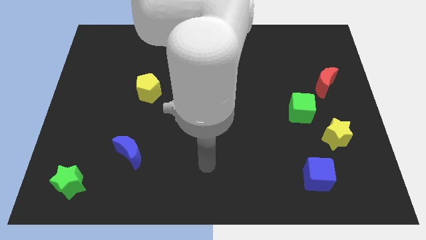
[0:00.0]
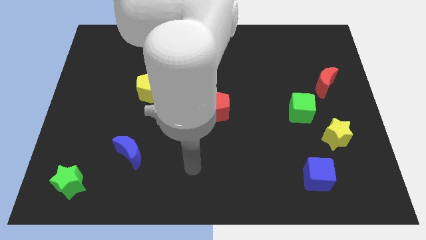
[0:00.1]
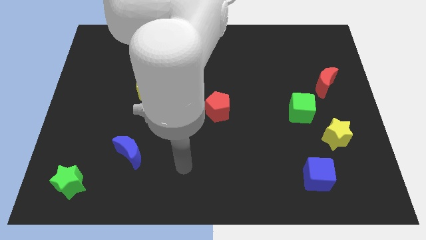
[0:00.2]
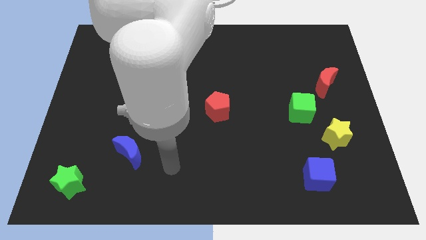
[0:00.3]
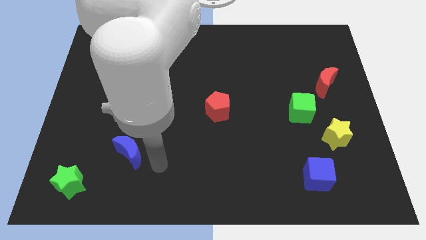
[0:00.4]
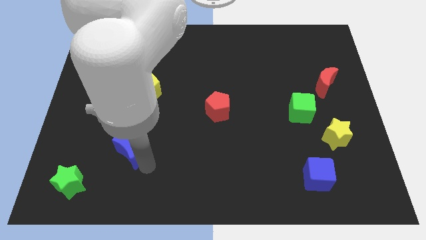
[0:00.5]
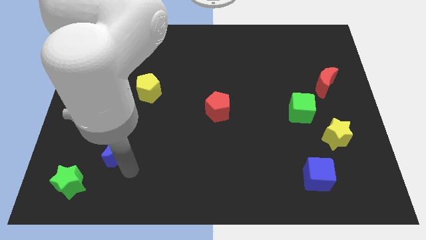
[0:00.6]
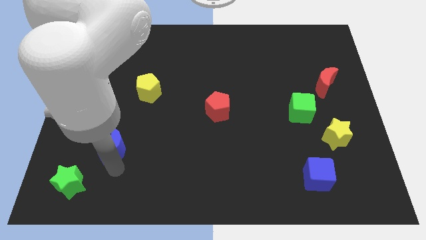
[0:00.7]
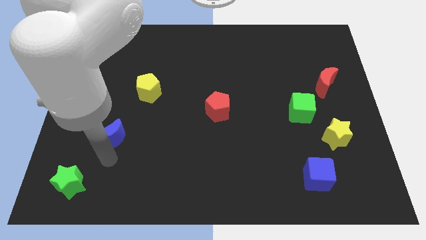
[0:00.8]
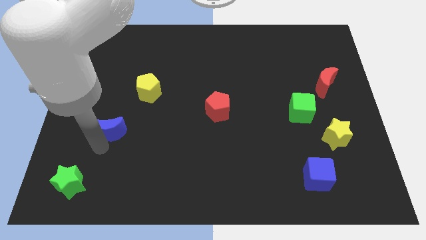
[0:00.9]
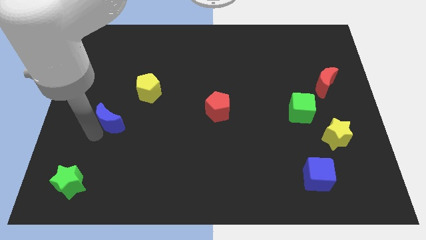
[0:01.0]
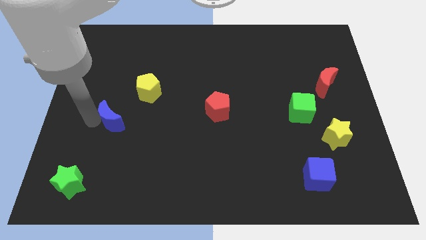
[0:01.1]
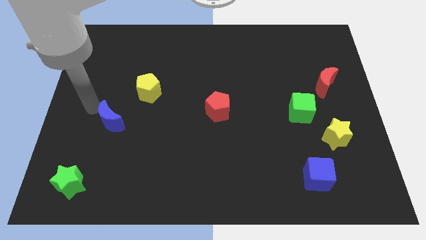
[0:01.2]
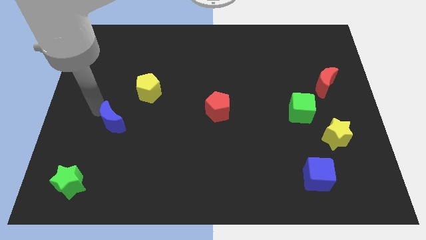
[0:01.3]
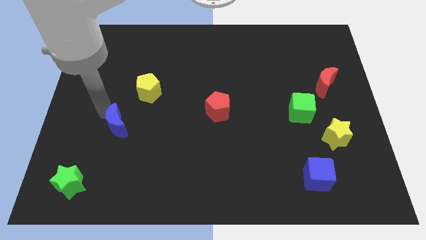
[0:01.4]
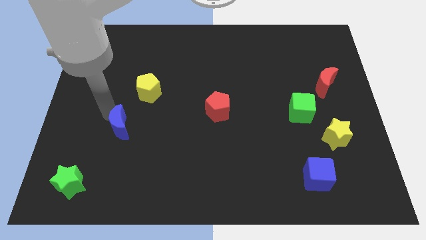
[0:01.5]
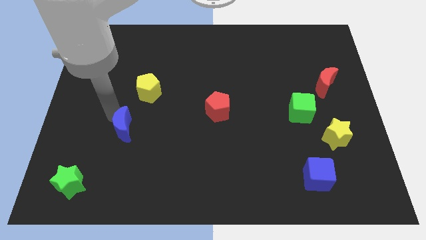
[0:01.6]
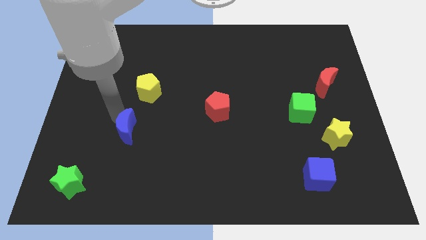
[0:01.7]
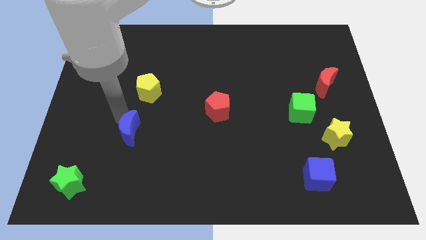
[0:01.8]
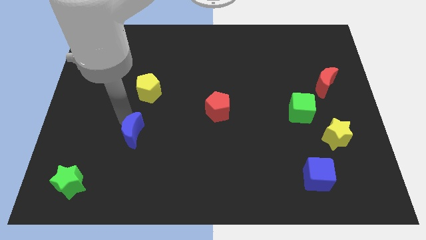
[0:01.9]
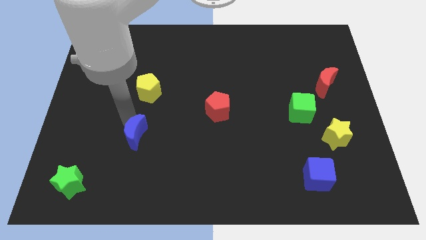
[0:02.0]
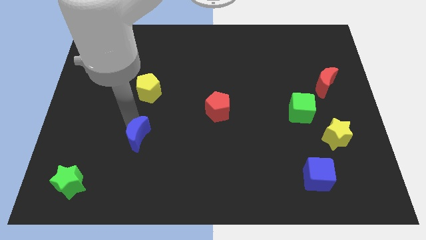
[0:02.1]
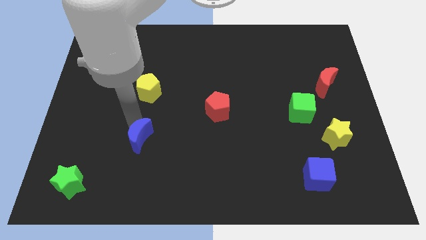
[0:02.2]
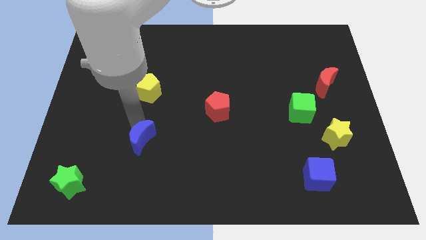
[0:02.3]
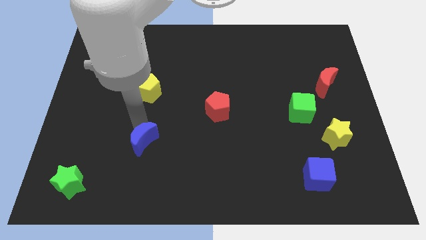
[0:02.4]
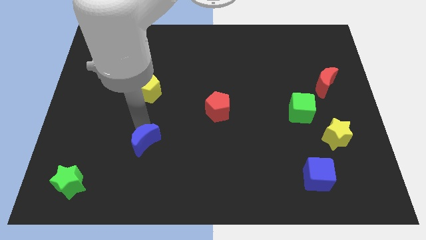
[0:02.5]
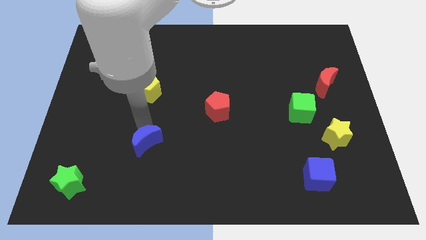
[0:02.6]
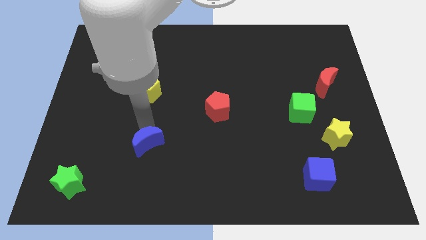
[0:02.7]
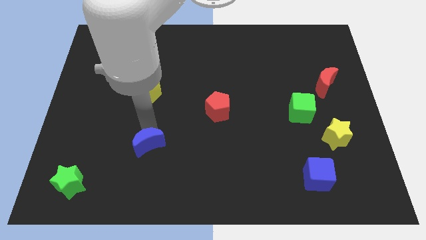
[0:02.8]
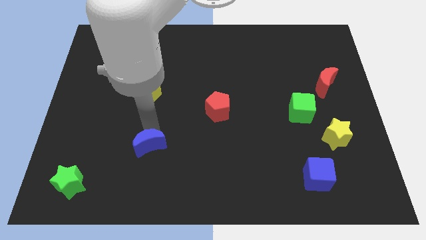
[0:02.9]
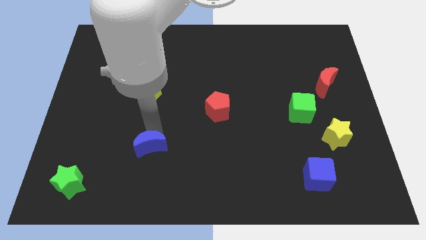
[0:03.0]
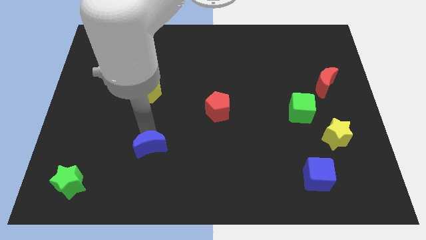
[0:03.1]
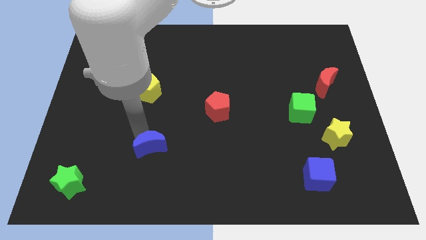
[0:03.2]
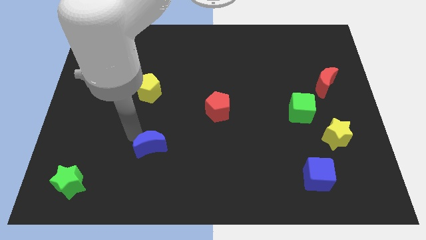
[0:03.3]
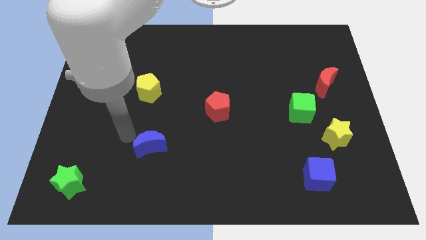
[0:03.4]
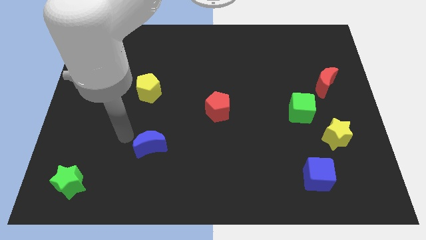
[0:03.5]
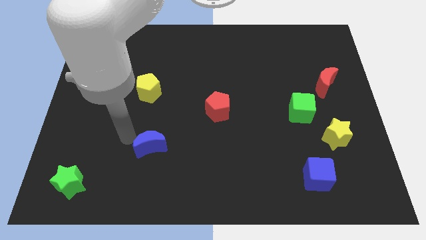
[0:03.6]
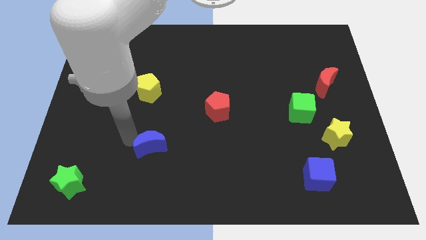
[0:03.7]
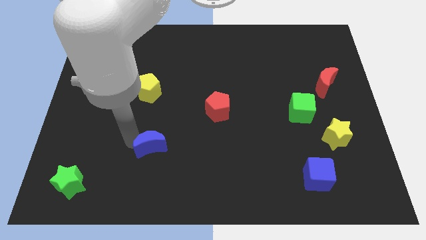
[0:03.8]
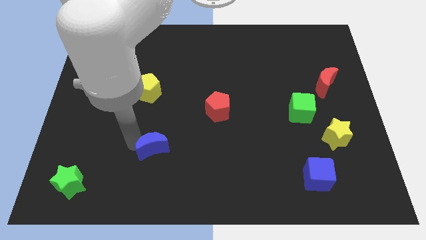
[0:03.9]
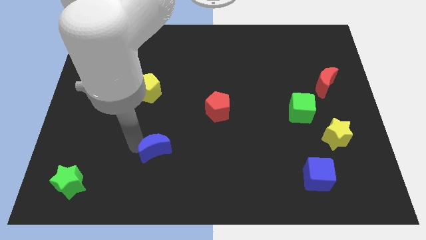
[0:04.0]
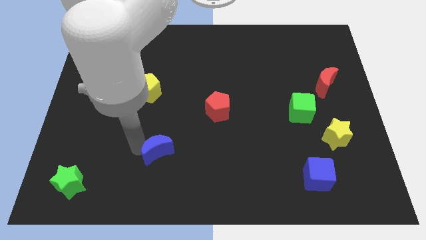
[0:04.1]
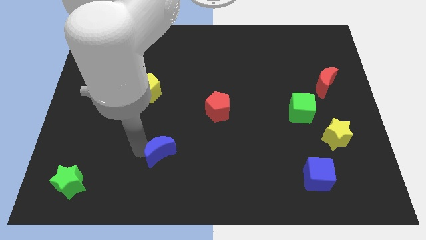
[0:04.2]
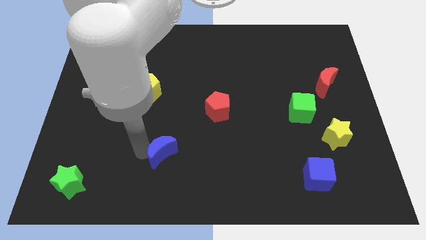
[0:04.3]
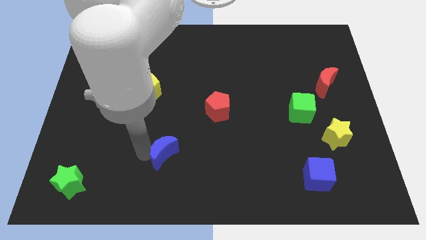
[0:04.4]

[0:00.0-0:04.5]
slightly push the blue moon to the right

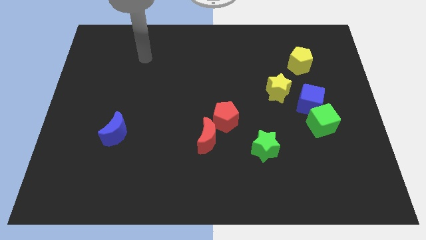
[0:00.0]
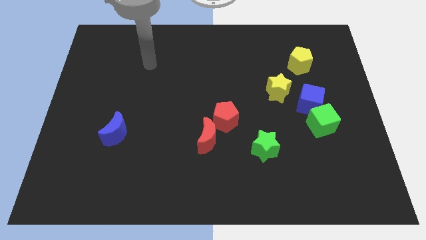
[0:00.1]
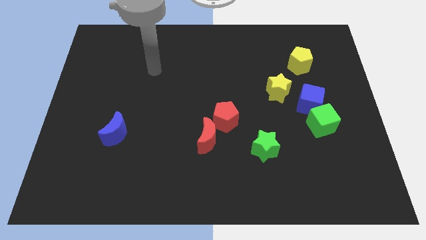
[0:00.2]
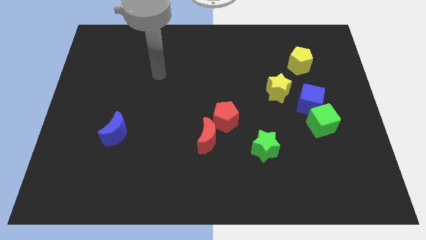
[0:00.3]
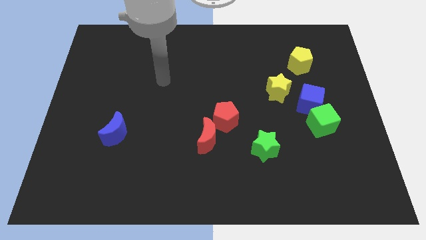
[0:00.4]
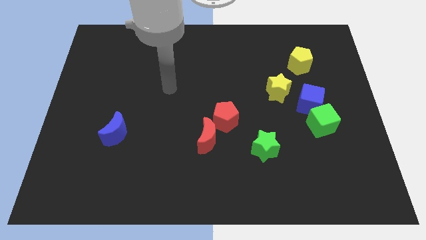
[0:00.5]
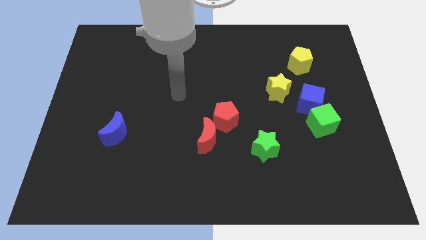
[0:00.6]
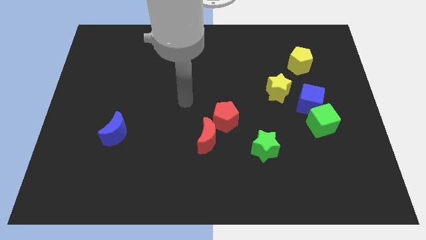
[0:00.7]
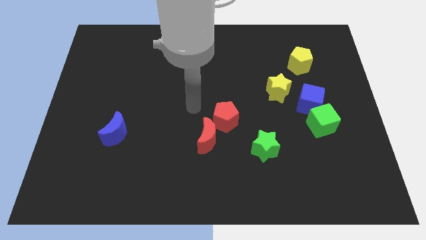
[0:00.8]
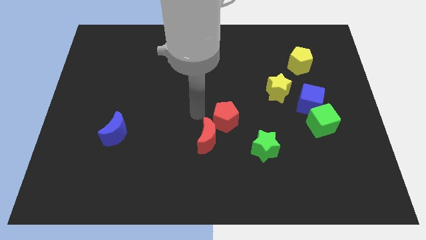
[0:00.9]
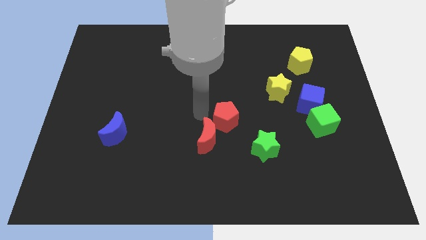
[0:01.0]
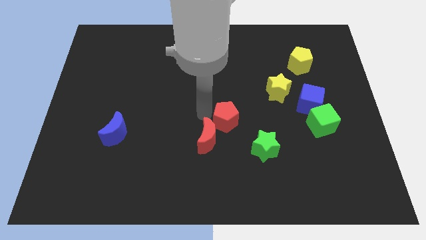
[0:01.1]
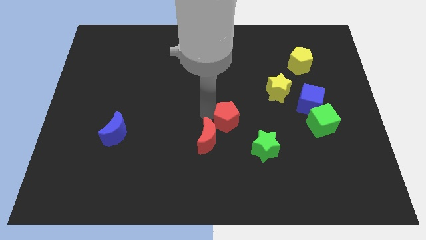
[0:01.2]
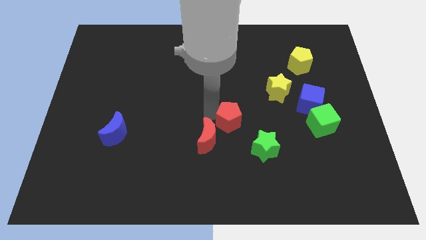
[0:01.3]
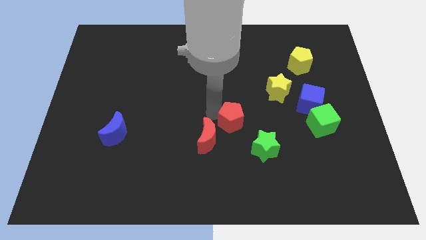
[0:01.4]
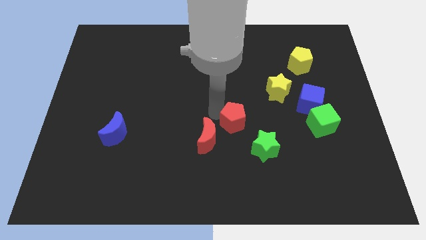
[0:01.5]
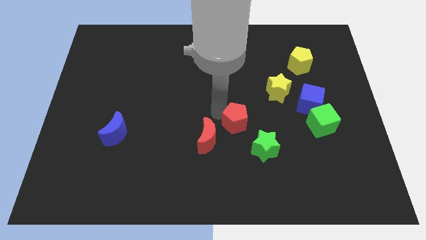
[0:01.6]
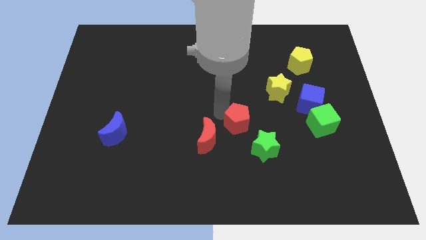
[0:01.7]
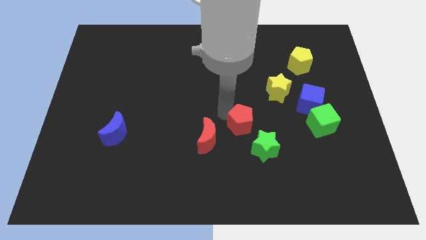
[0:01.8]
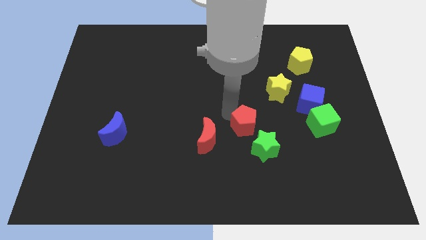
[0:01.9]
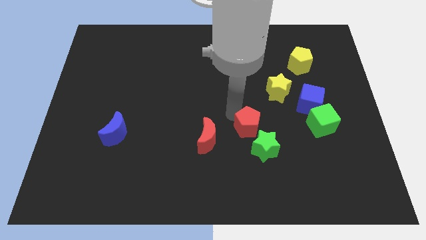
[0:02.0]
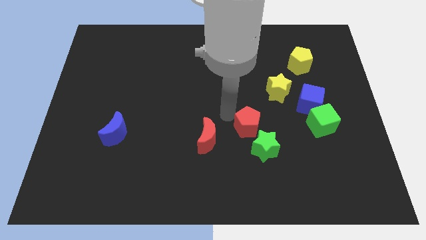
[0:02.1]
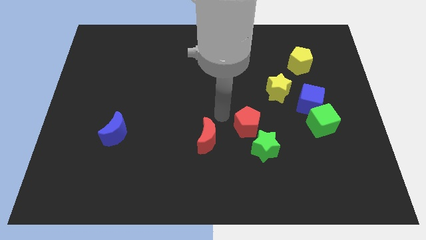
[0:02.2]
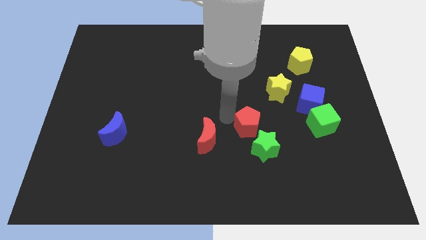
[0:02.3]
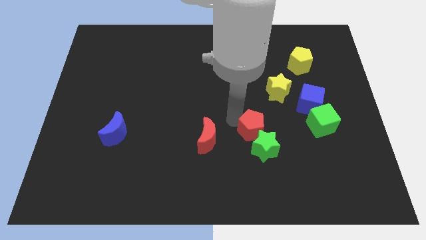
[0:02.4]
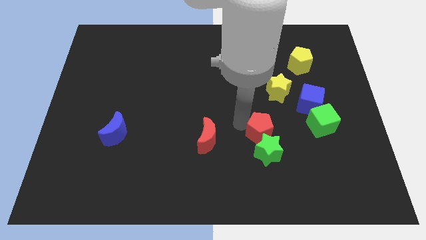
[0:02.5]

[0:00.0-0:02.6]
slightly push the red pentagon down and to the right

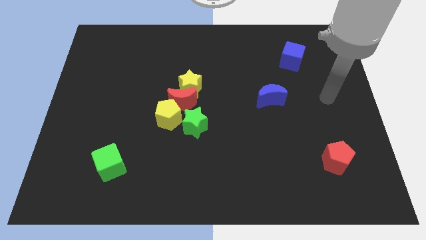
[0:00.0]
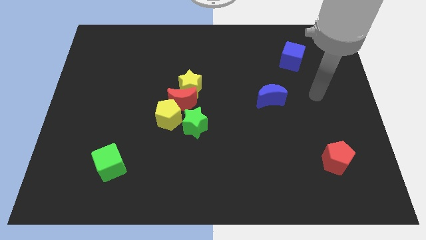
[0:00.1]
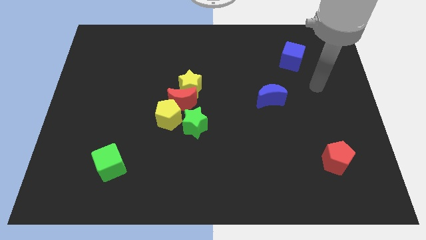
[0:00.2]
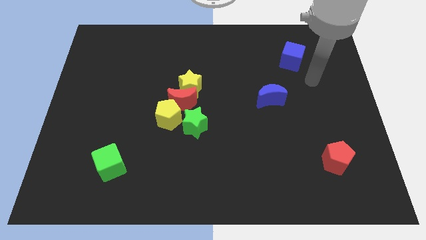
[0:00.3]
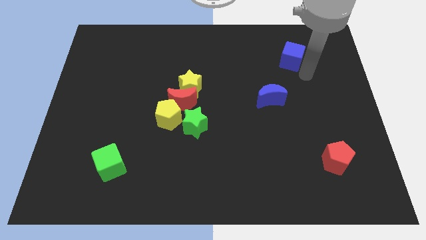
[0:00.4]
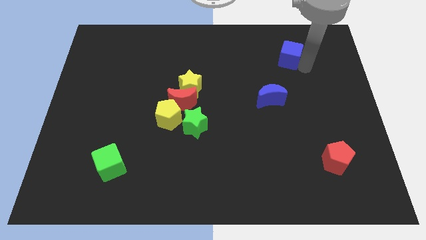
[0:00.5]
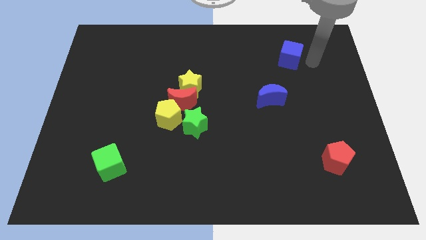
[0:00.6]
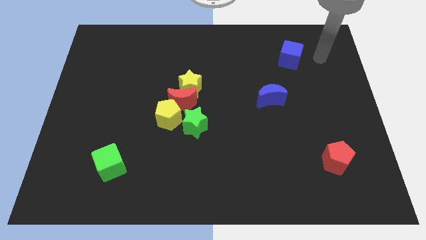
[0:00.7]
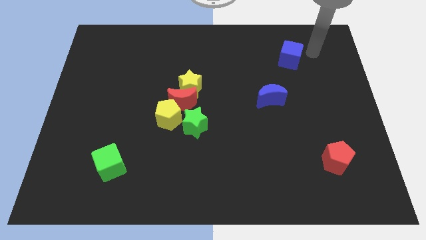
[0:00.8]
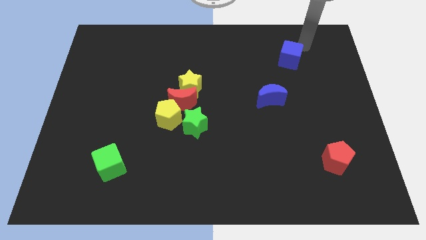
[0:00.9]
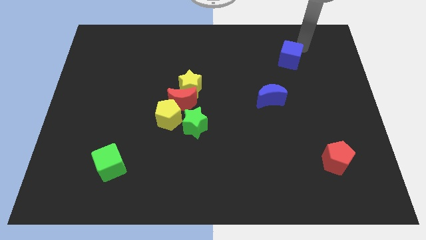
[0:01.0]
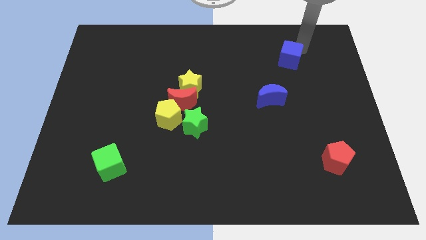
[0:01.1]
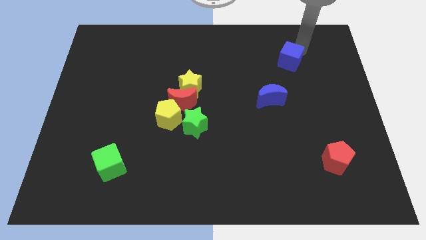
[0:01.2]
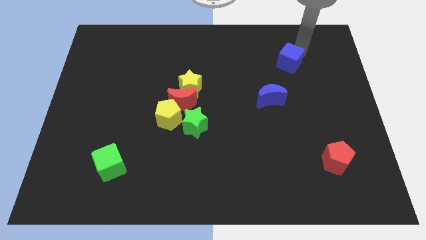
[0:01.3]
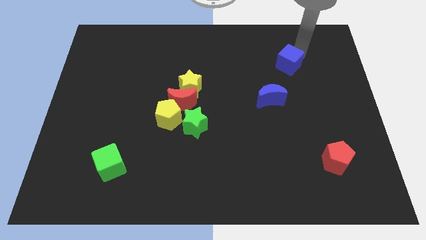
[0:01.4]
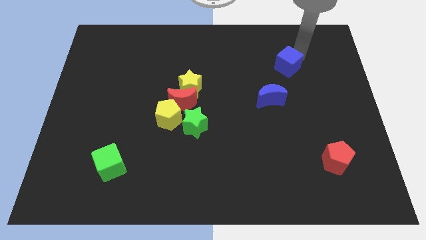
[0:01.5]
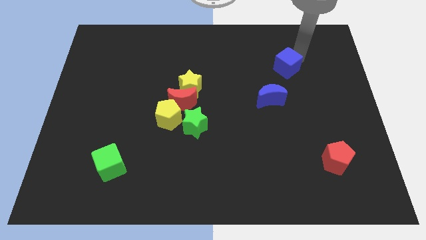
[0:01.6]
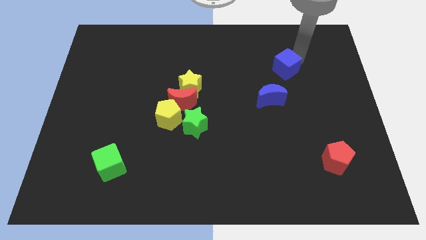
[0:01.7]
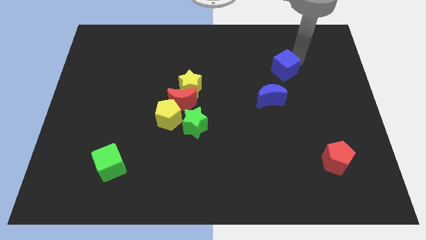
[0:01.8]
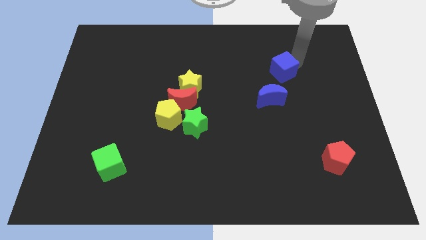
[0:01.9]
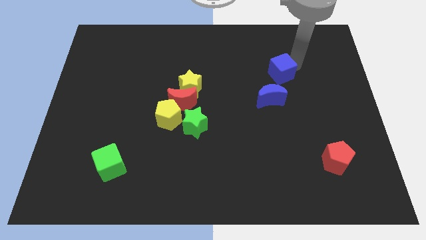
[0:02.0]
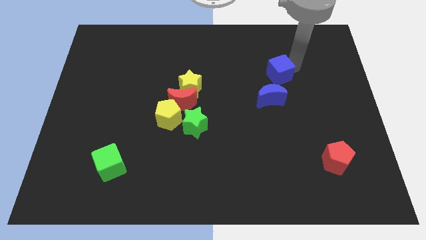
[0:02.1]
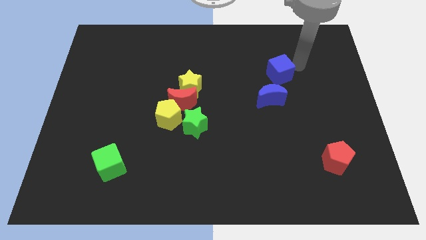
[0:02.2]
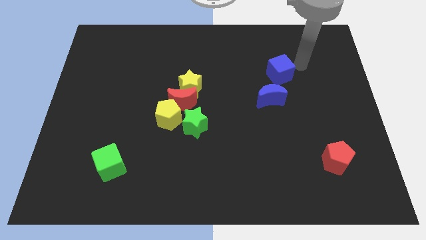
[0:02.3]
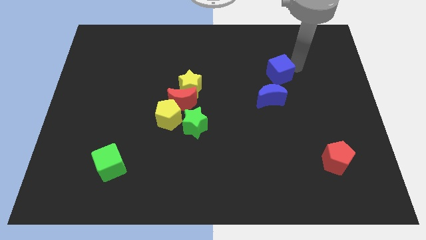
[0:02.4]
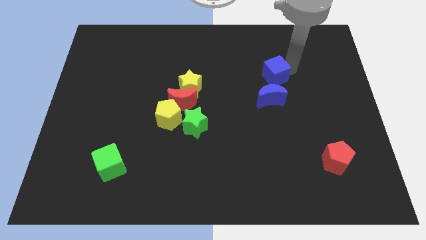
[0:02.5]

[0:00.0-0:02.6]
move the blue cube downwards and then to the left a little
